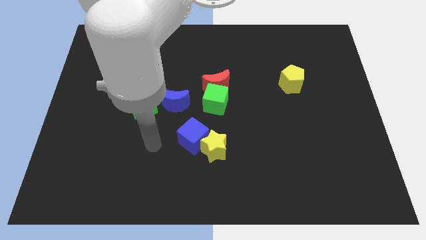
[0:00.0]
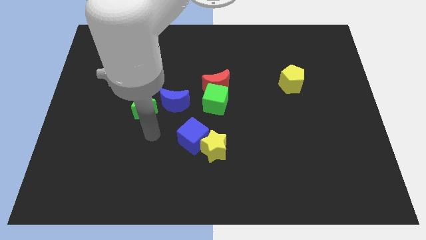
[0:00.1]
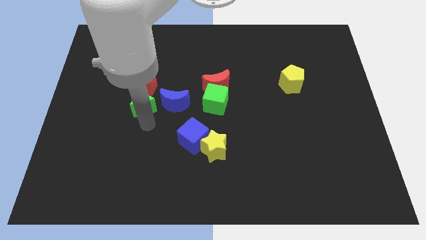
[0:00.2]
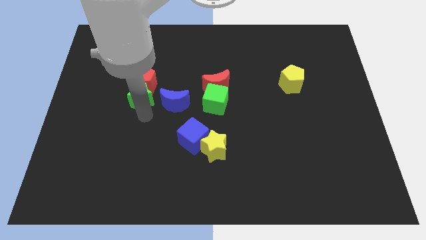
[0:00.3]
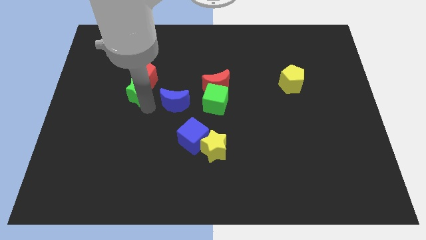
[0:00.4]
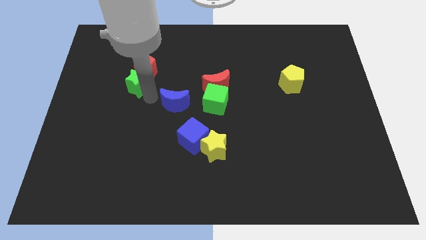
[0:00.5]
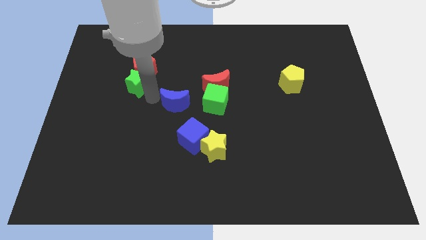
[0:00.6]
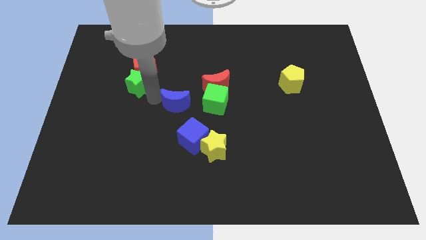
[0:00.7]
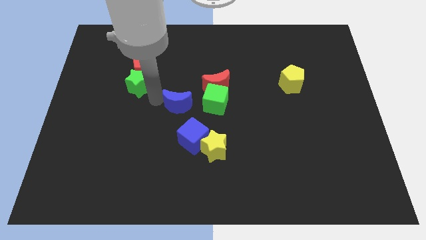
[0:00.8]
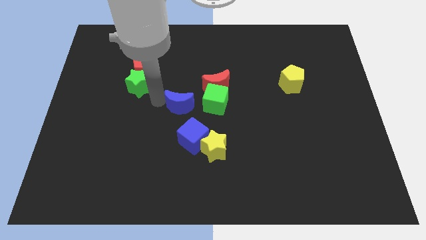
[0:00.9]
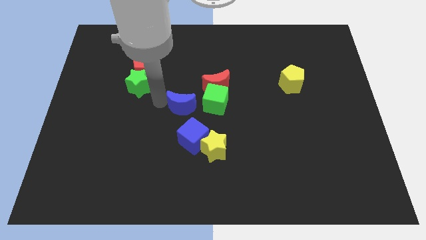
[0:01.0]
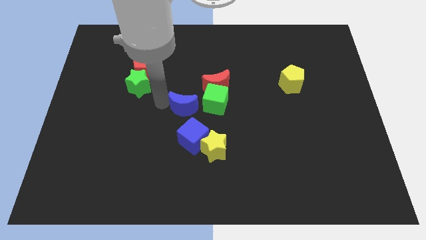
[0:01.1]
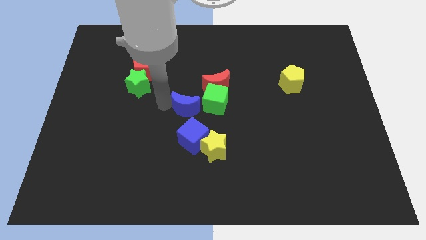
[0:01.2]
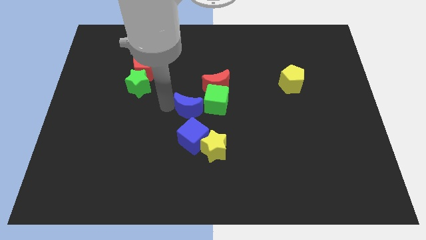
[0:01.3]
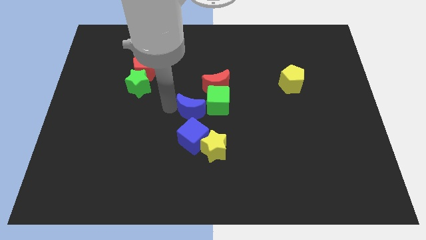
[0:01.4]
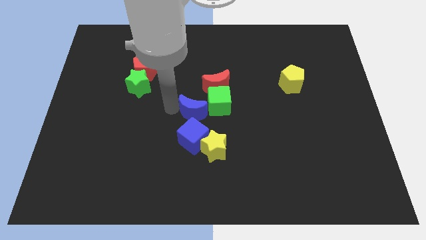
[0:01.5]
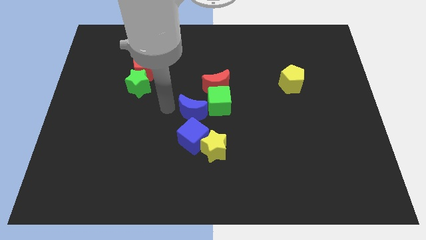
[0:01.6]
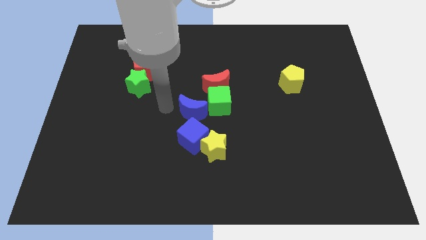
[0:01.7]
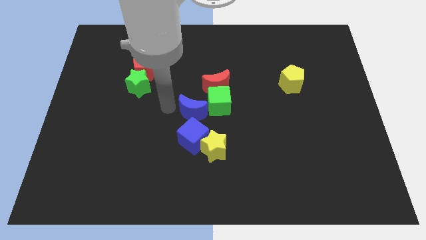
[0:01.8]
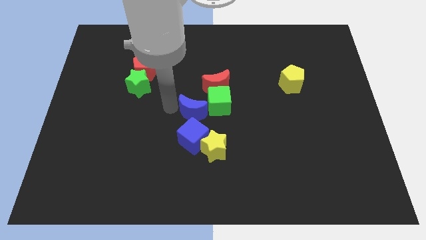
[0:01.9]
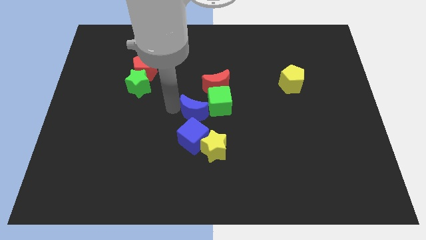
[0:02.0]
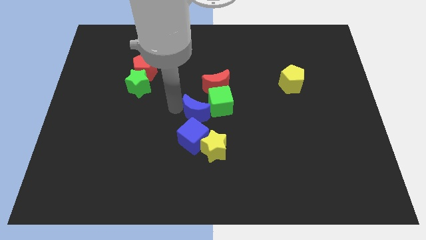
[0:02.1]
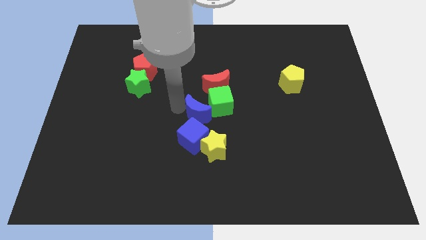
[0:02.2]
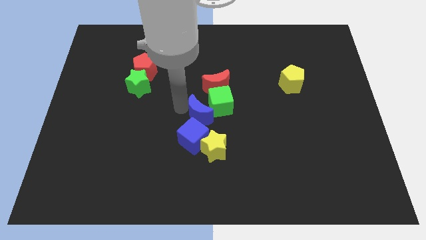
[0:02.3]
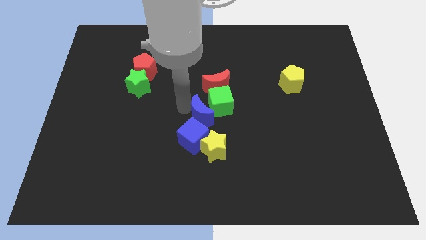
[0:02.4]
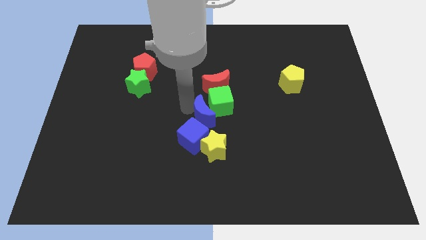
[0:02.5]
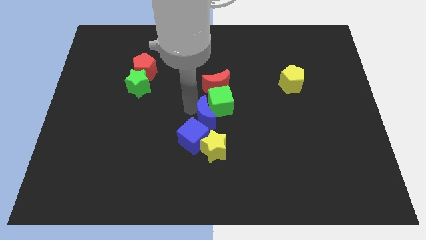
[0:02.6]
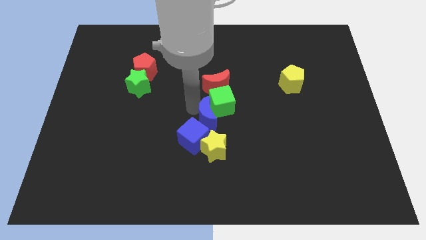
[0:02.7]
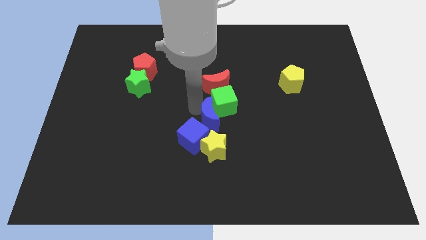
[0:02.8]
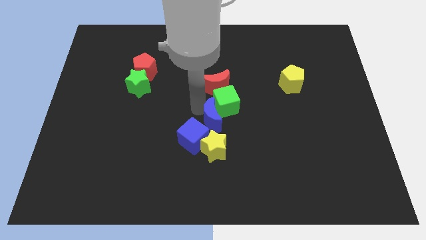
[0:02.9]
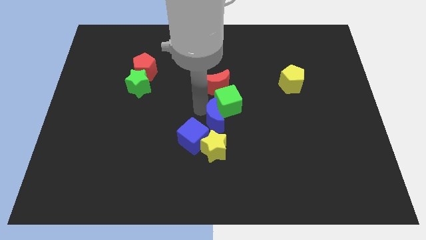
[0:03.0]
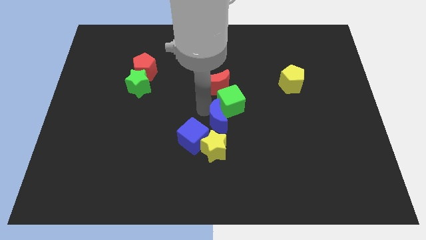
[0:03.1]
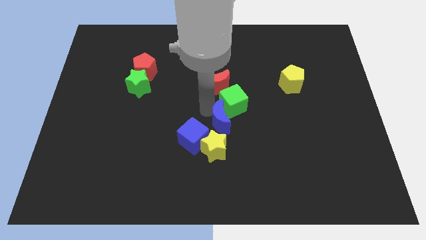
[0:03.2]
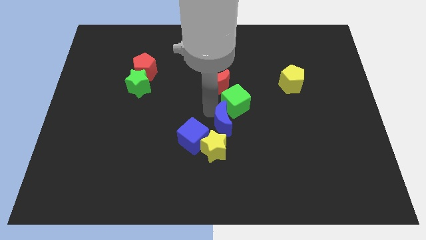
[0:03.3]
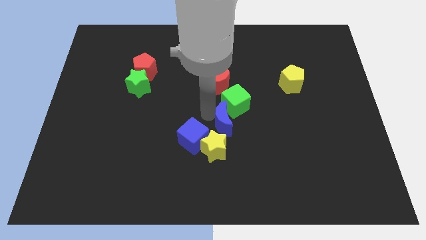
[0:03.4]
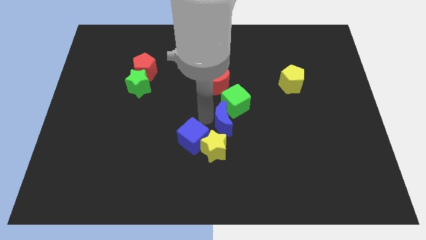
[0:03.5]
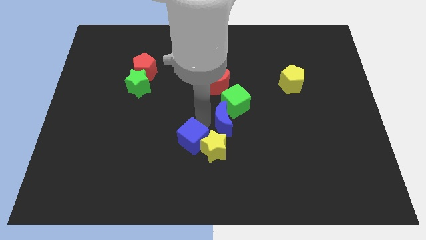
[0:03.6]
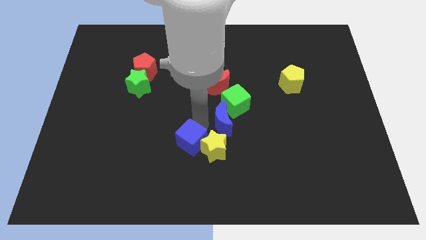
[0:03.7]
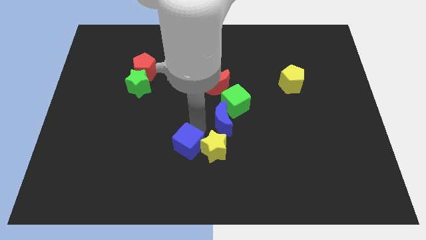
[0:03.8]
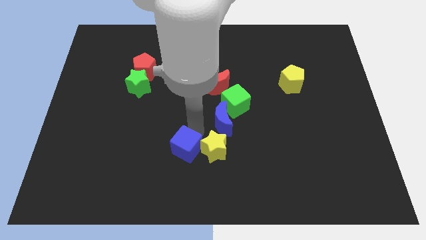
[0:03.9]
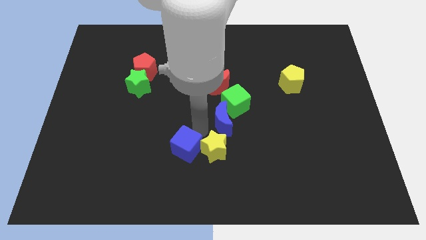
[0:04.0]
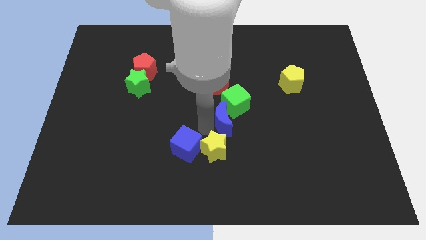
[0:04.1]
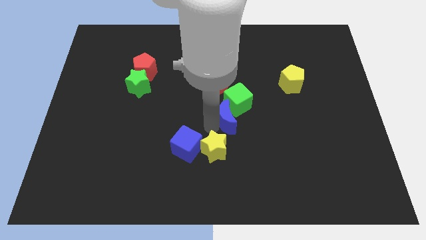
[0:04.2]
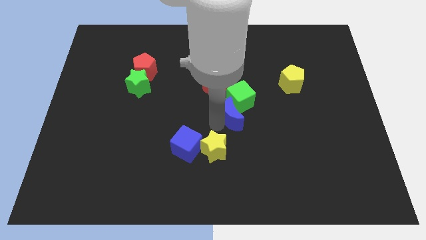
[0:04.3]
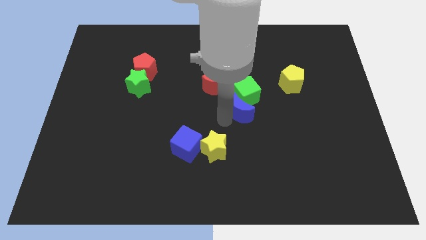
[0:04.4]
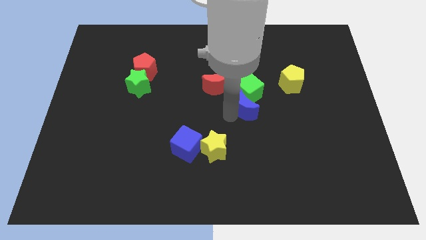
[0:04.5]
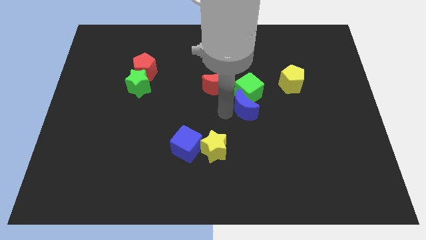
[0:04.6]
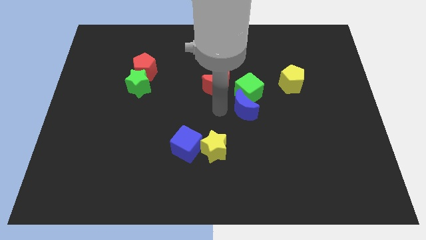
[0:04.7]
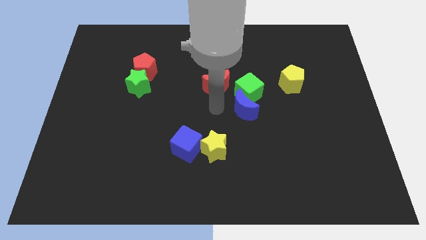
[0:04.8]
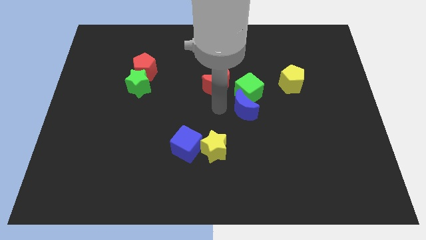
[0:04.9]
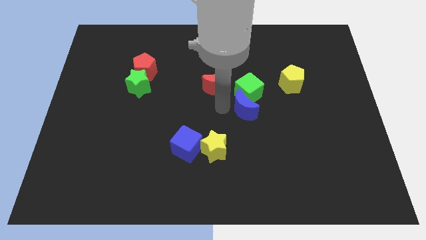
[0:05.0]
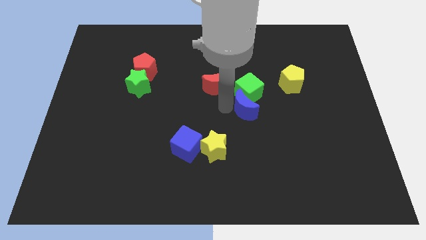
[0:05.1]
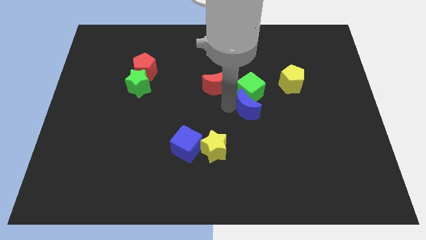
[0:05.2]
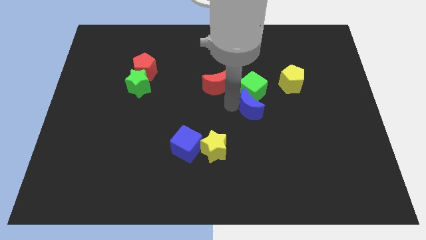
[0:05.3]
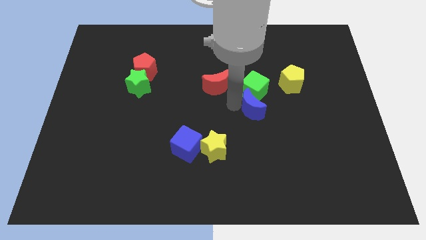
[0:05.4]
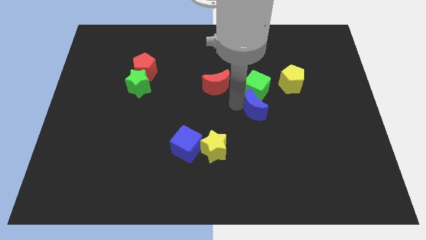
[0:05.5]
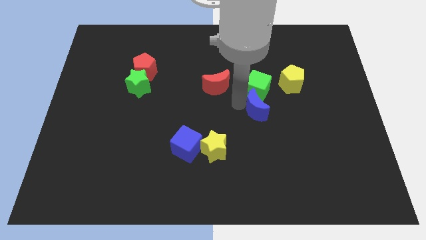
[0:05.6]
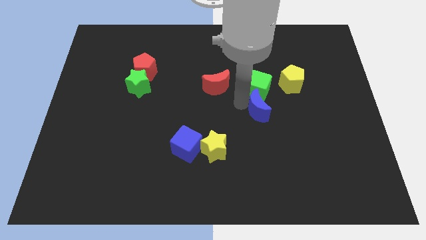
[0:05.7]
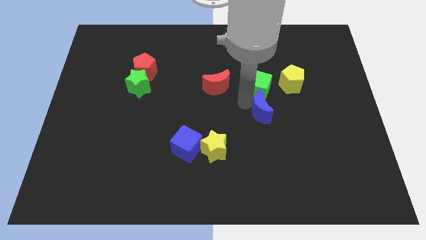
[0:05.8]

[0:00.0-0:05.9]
move the blue moon right

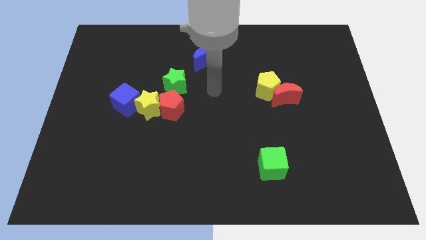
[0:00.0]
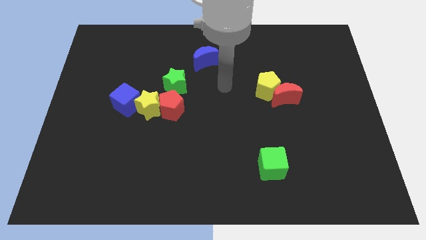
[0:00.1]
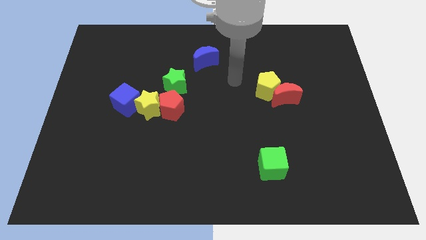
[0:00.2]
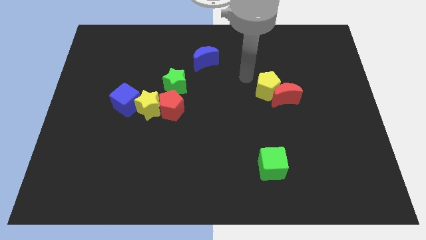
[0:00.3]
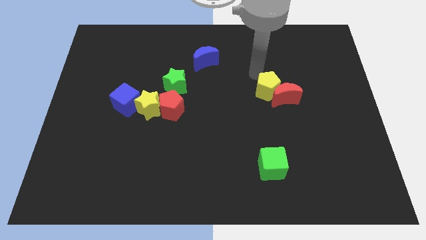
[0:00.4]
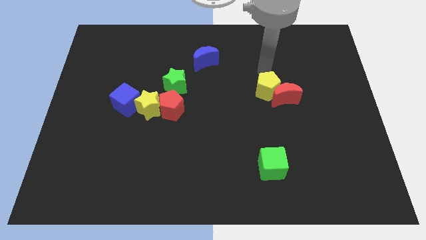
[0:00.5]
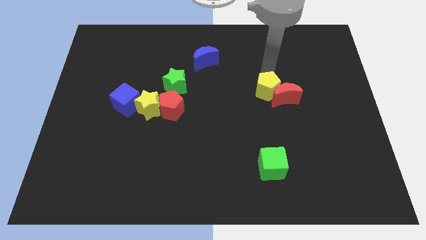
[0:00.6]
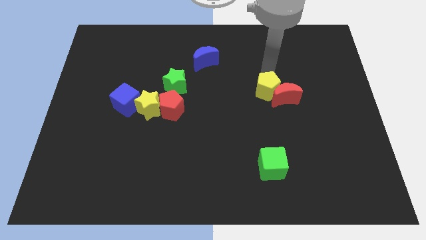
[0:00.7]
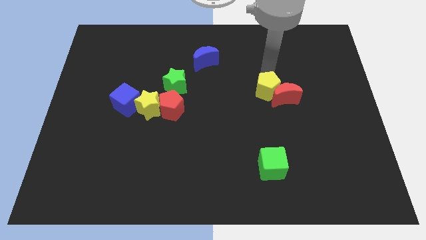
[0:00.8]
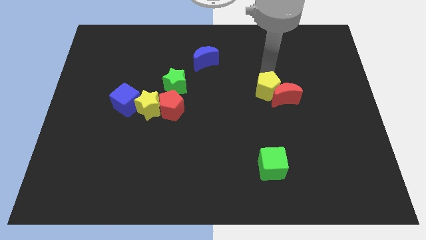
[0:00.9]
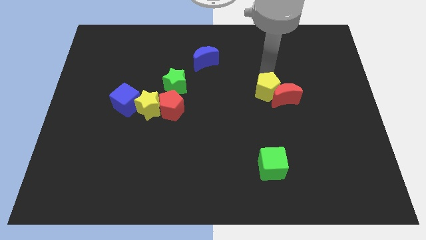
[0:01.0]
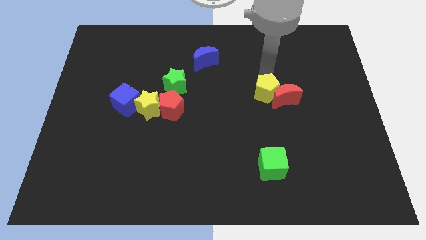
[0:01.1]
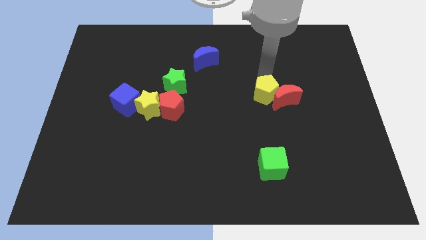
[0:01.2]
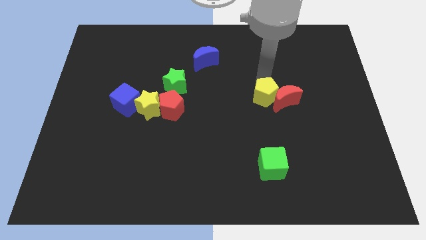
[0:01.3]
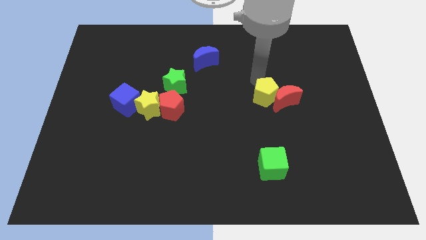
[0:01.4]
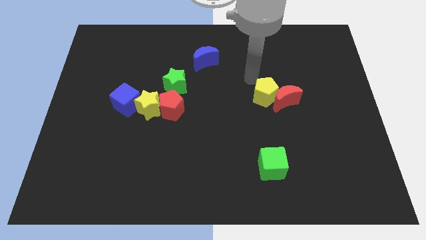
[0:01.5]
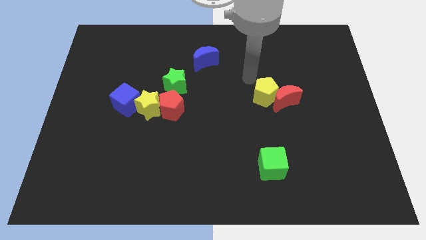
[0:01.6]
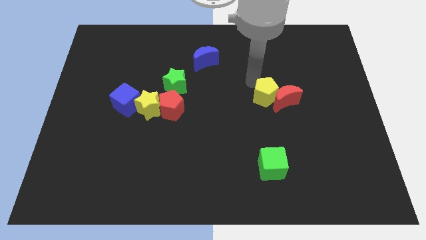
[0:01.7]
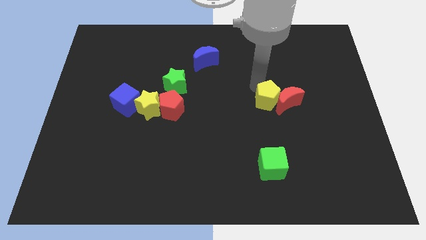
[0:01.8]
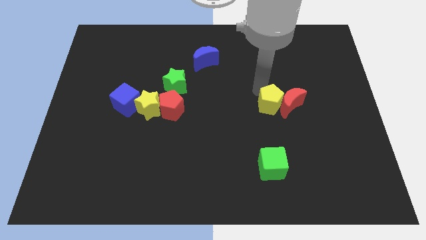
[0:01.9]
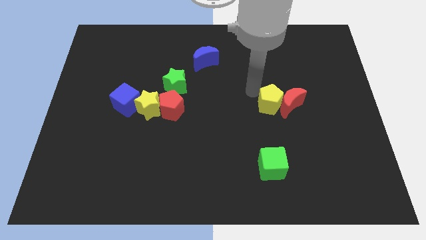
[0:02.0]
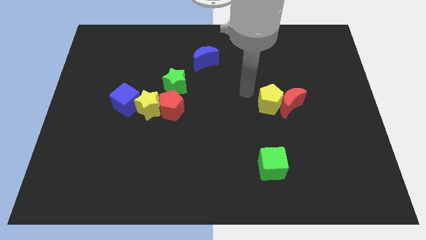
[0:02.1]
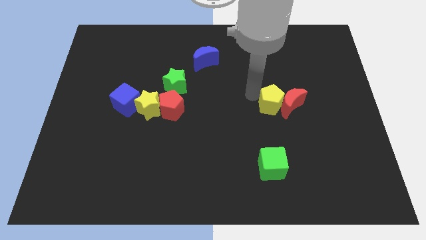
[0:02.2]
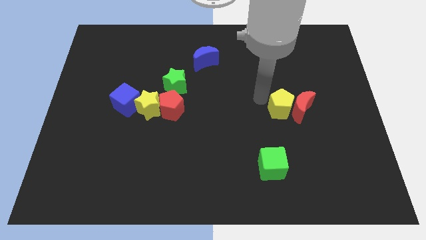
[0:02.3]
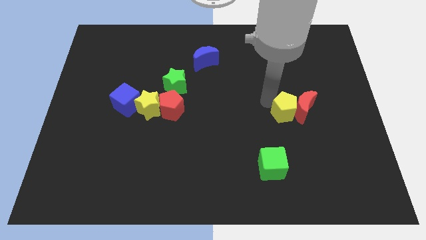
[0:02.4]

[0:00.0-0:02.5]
slightly slide the yellow pentagon down and then right
